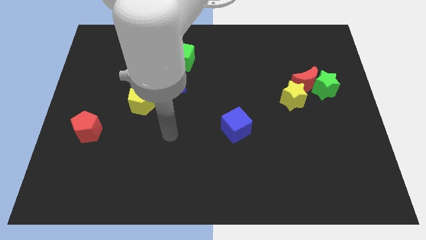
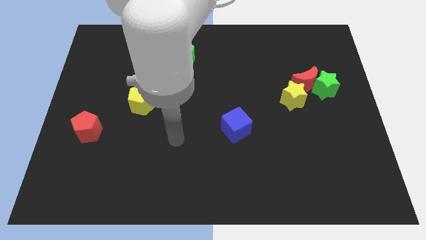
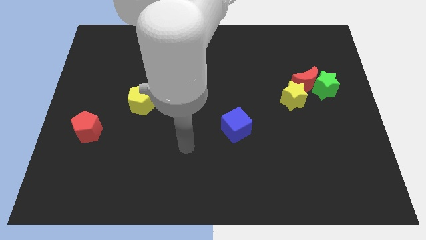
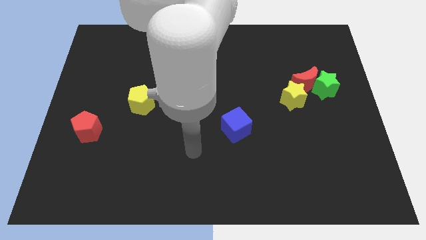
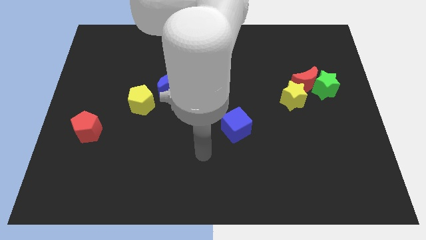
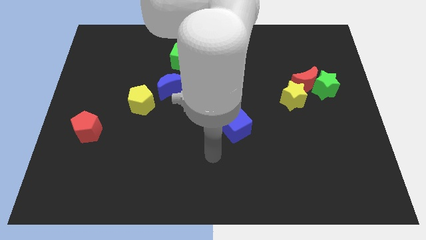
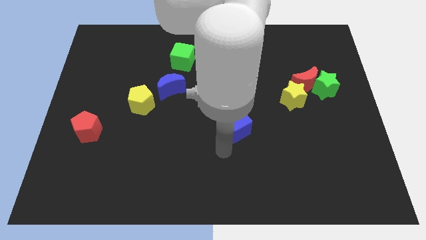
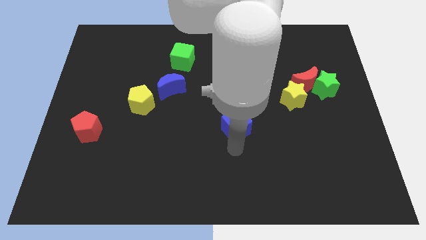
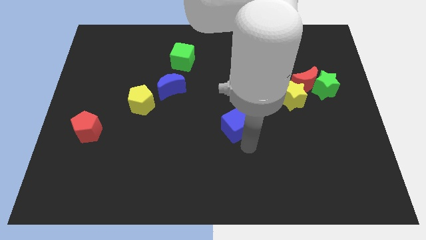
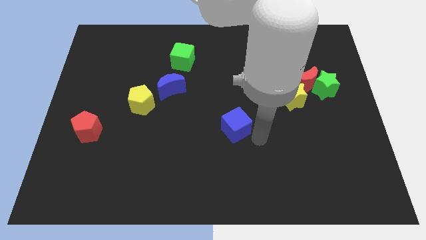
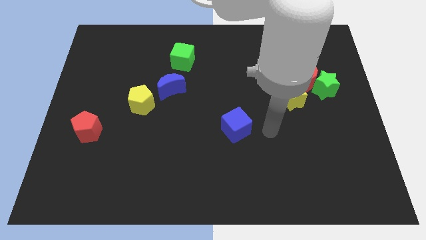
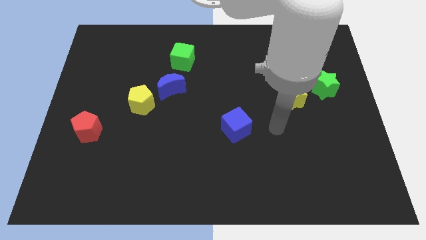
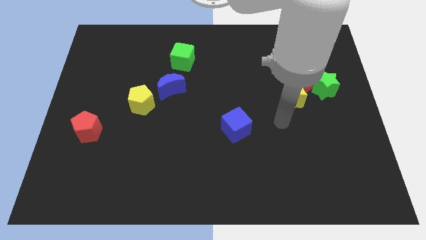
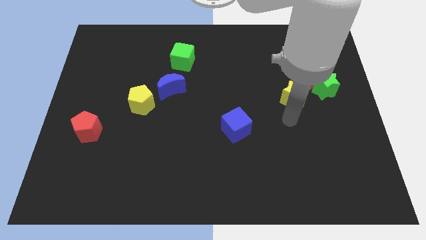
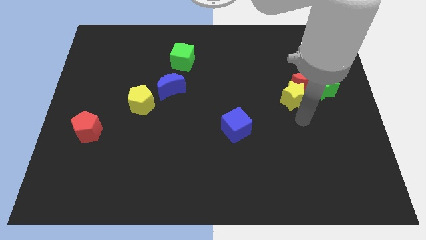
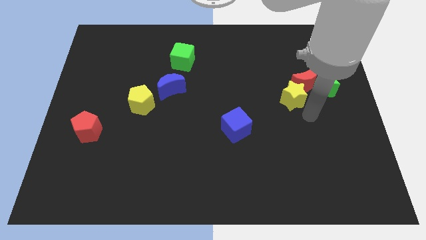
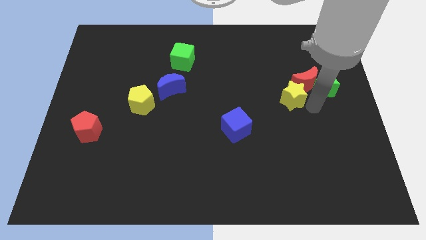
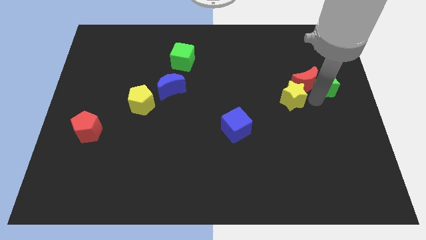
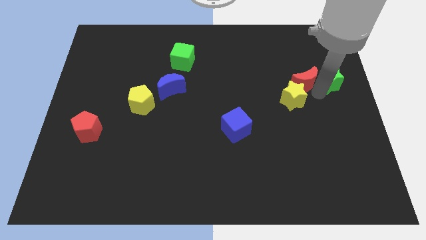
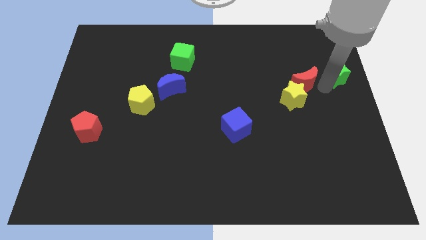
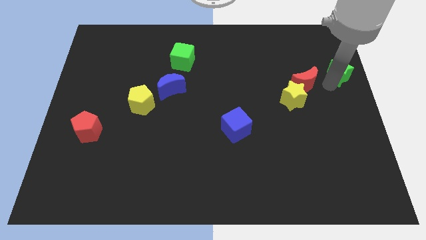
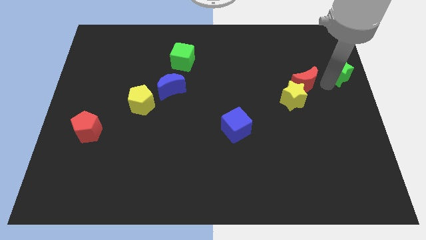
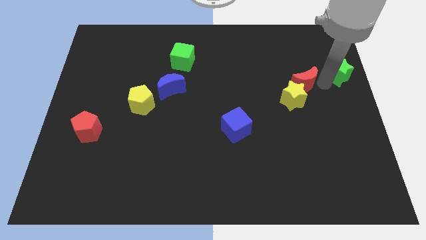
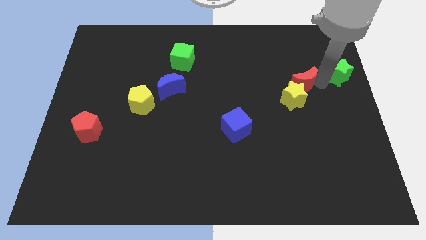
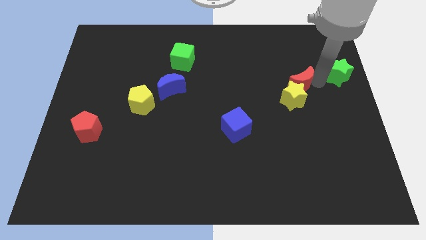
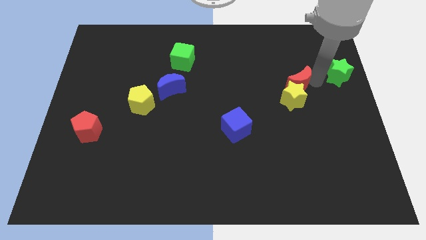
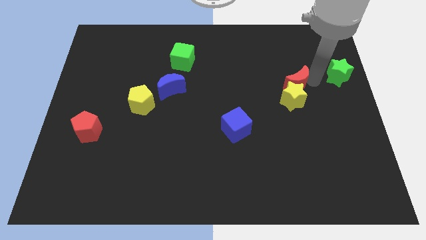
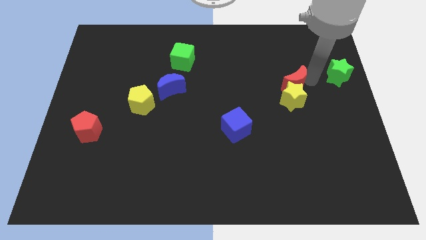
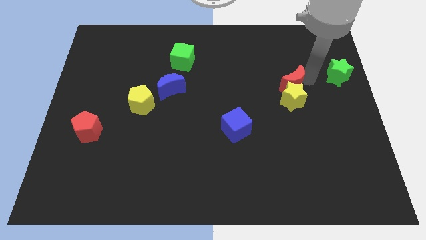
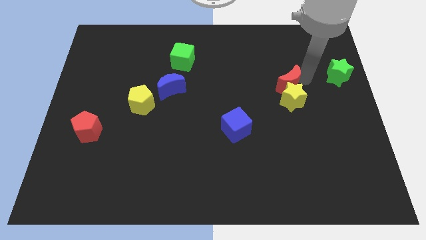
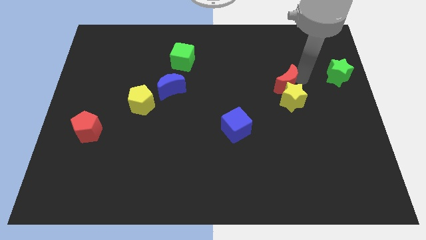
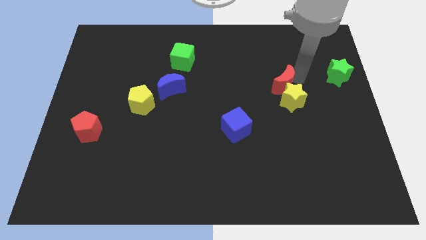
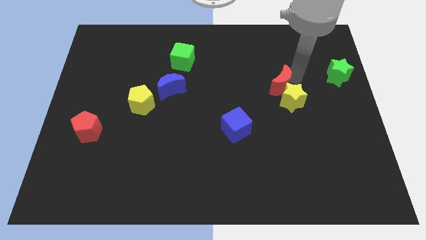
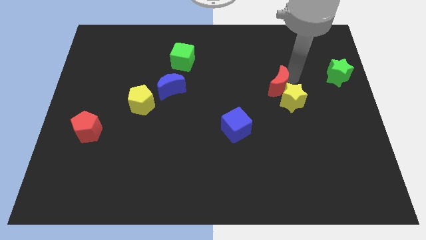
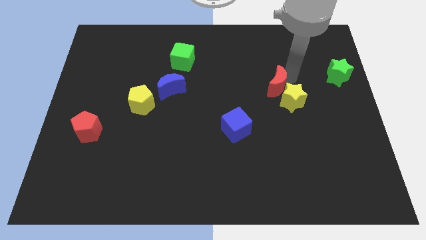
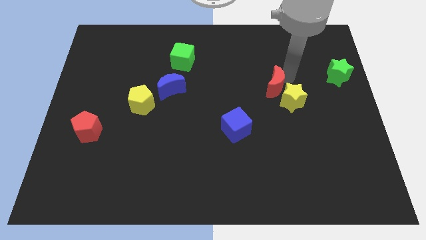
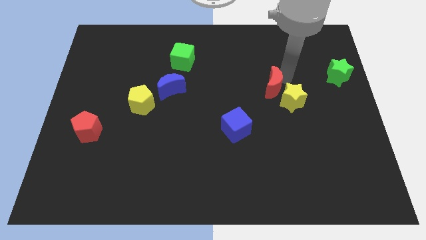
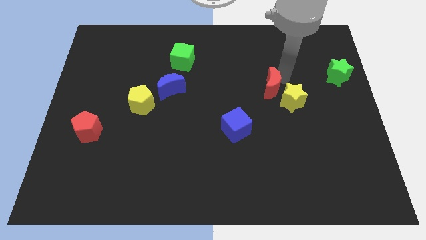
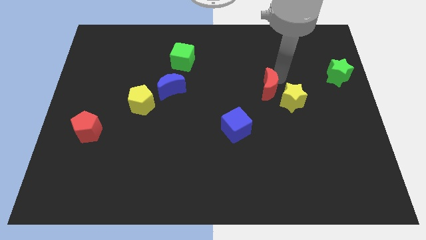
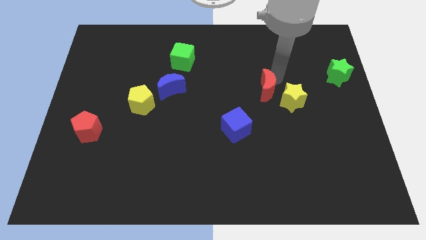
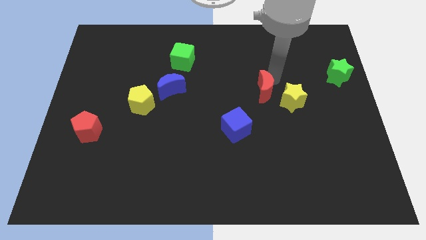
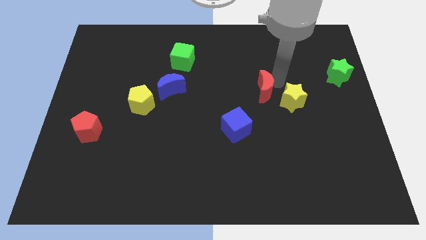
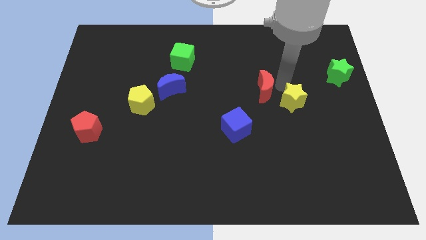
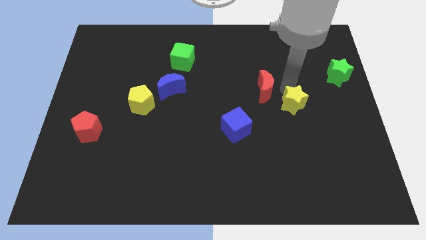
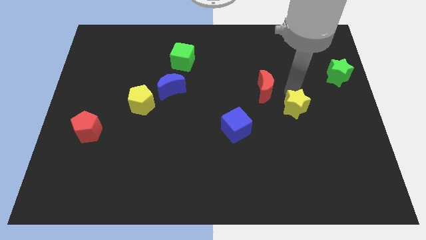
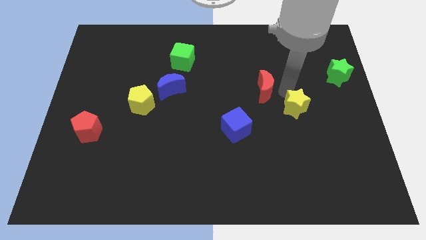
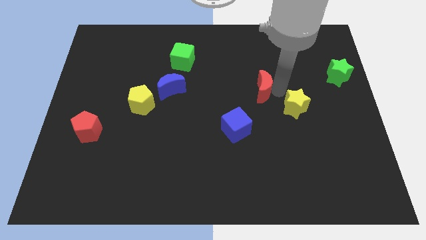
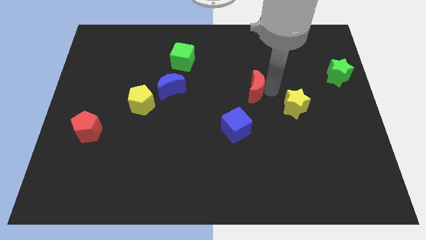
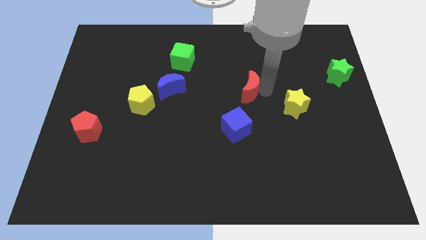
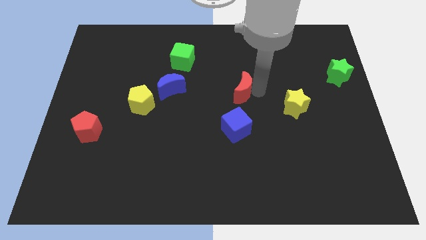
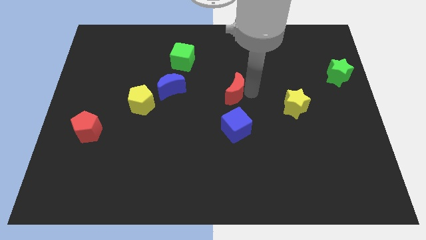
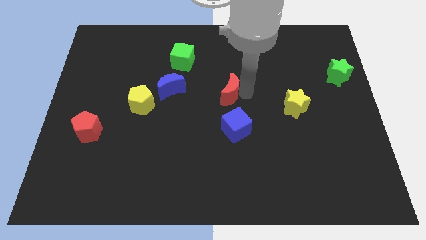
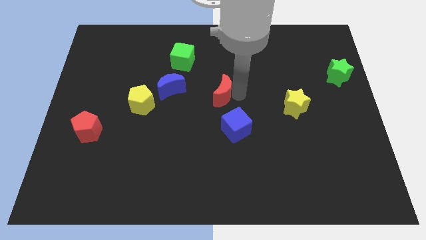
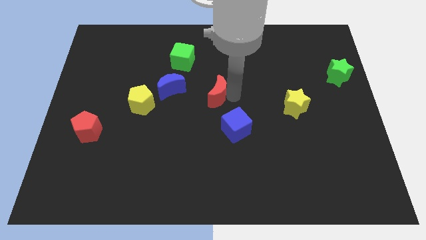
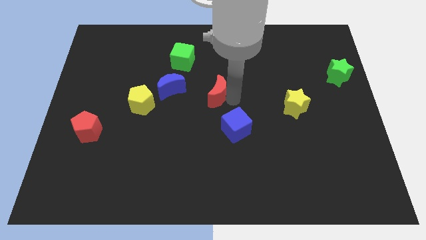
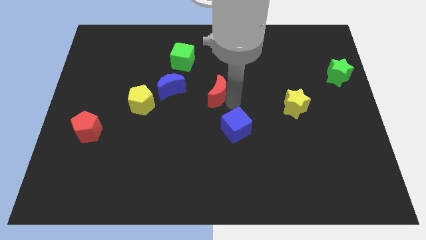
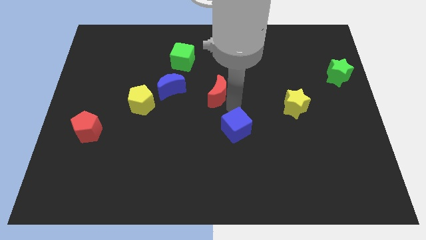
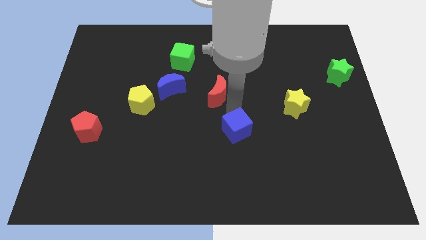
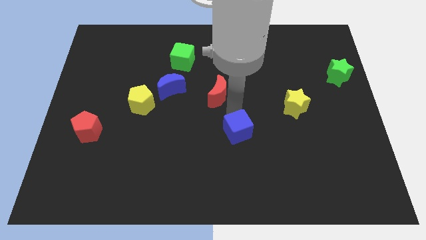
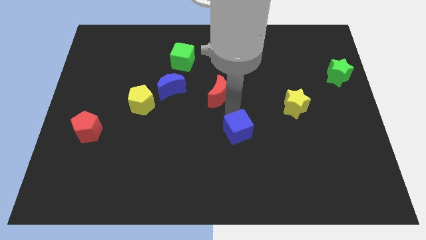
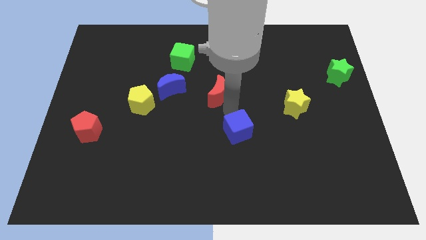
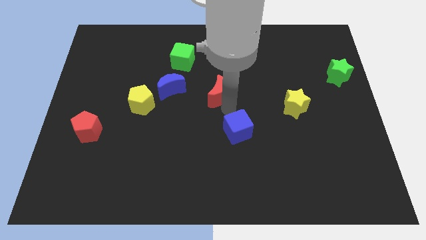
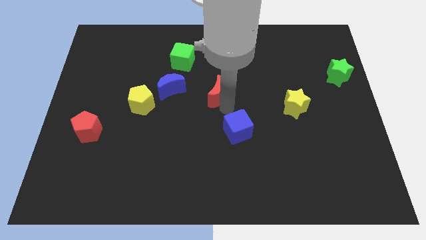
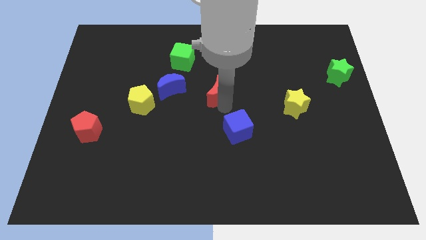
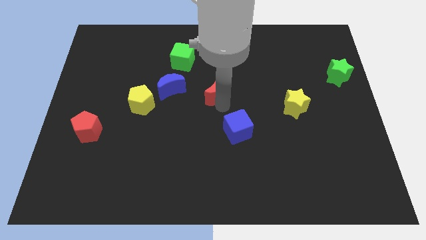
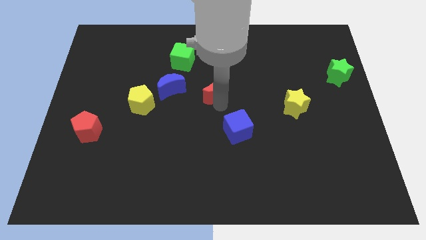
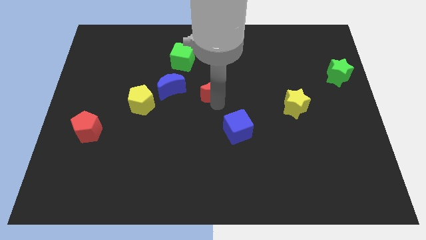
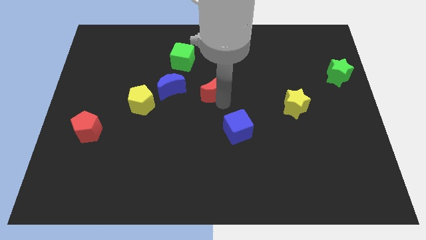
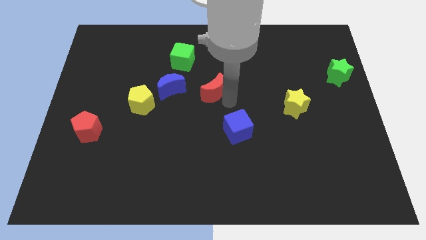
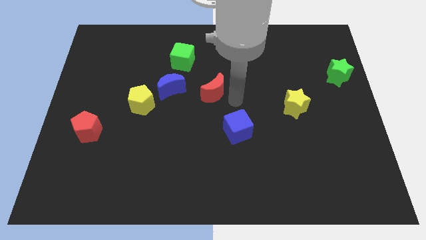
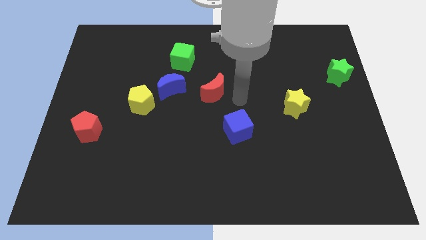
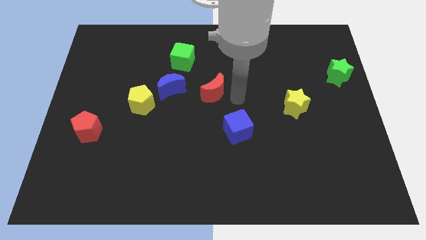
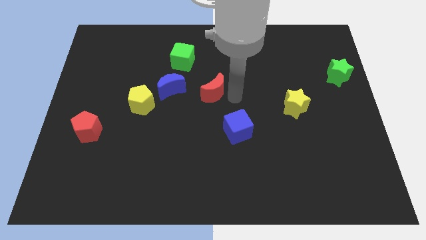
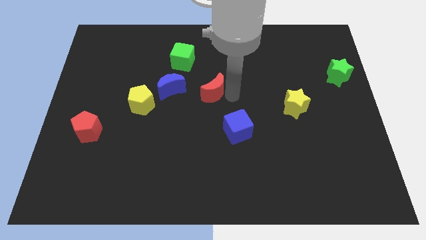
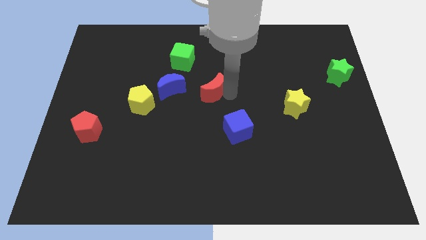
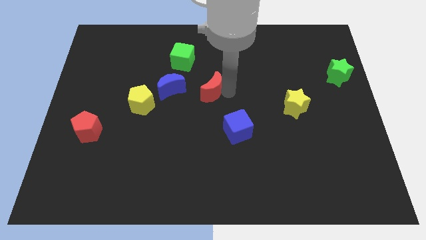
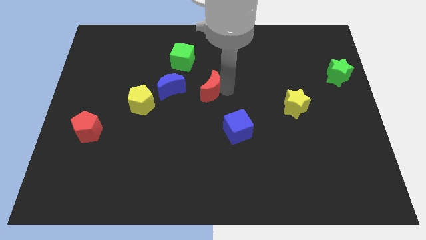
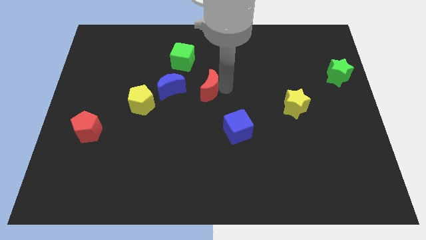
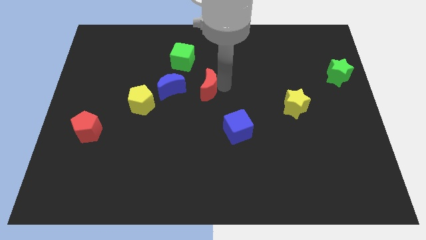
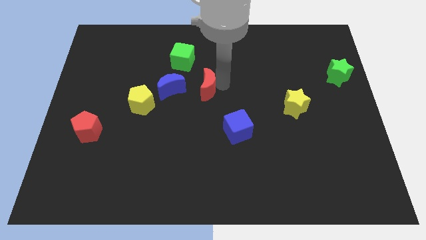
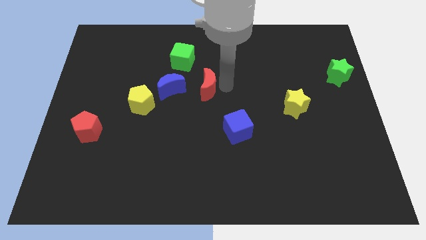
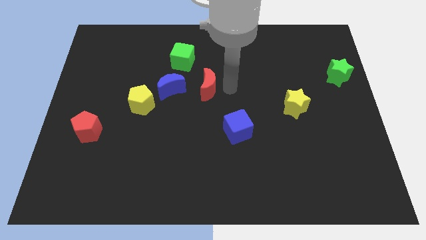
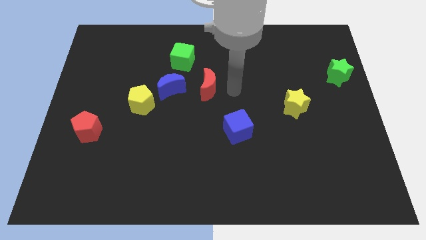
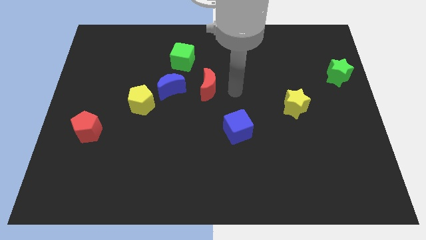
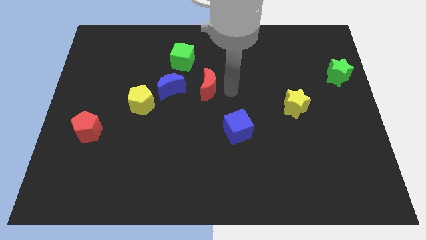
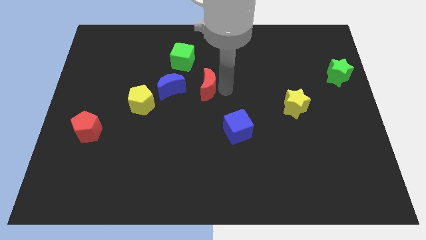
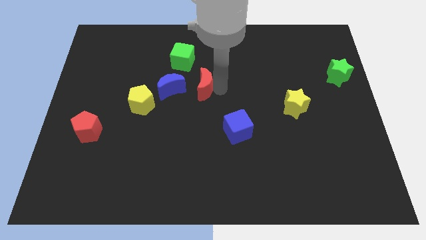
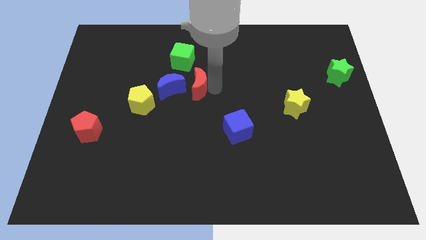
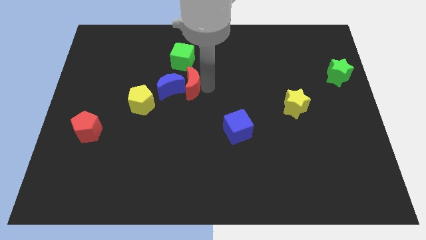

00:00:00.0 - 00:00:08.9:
put the red moon towards the blue moon
